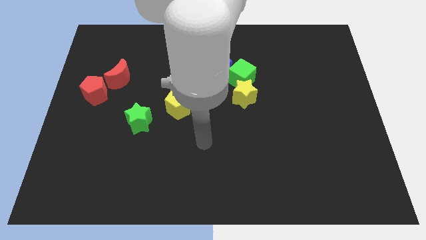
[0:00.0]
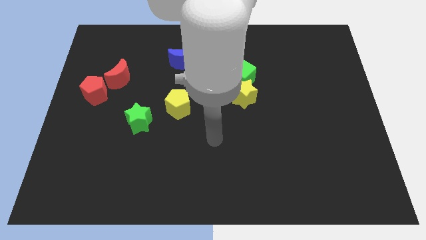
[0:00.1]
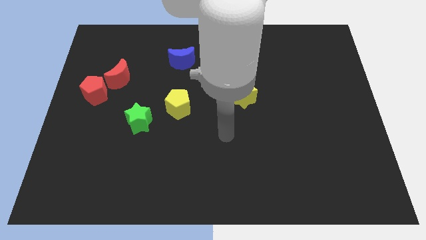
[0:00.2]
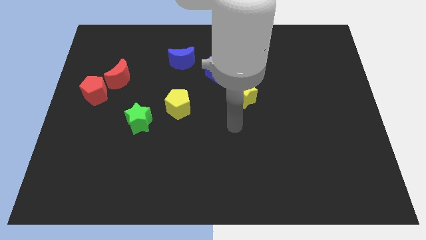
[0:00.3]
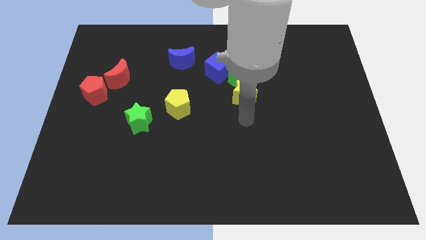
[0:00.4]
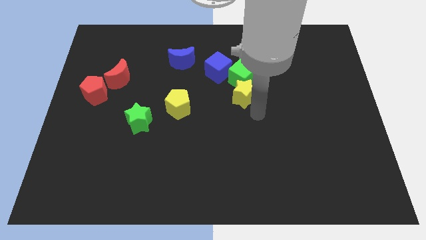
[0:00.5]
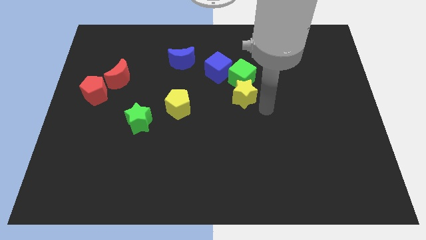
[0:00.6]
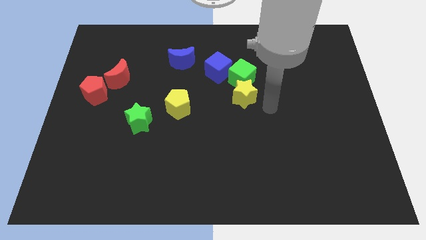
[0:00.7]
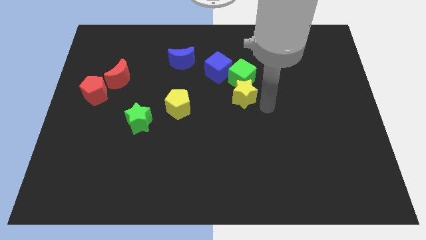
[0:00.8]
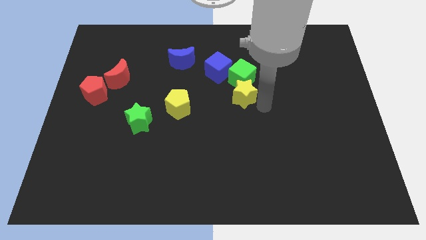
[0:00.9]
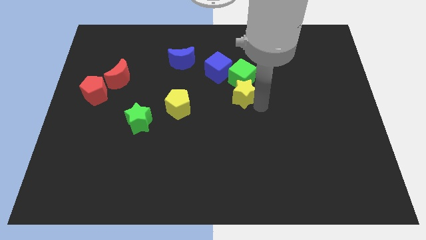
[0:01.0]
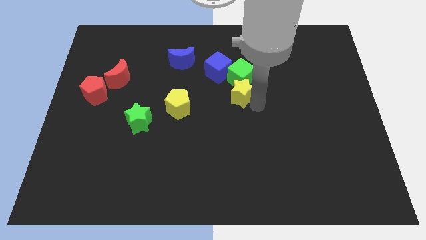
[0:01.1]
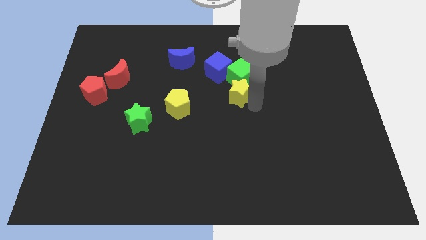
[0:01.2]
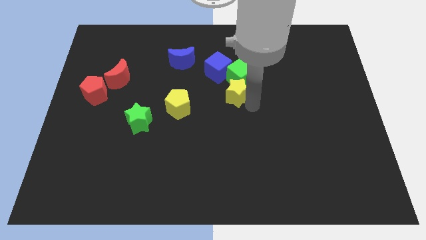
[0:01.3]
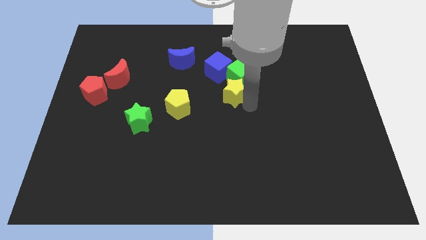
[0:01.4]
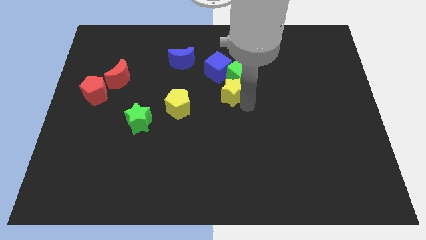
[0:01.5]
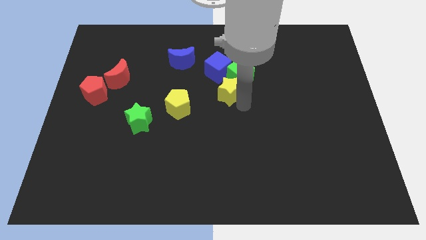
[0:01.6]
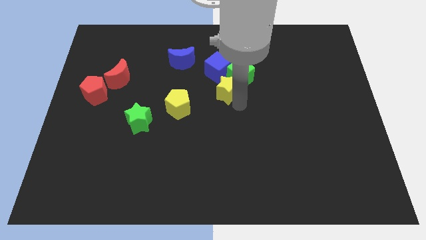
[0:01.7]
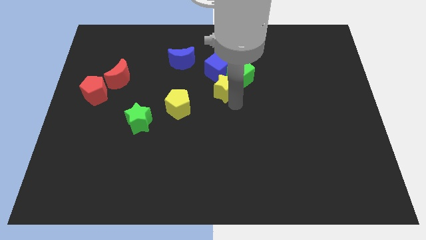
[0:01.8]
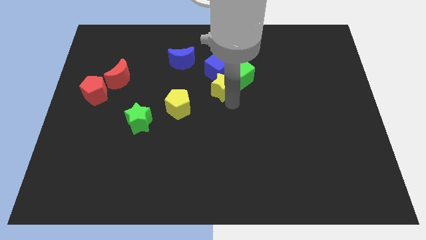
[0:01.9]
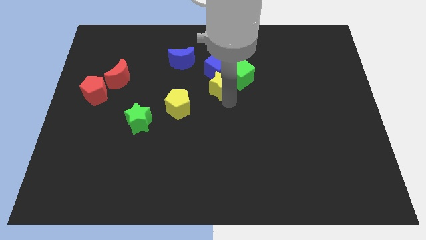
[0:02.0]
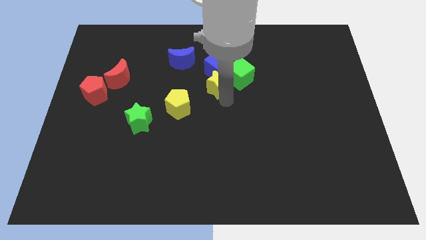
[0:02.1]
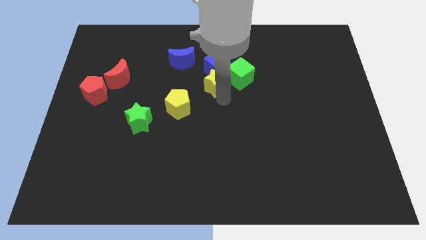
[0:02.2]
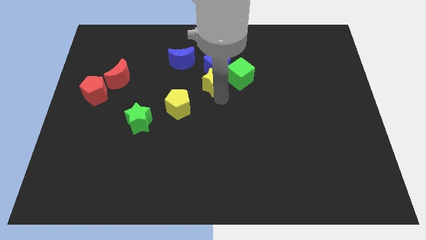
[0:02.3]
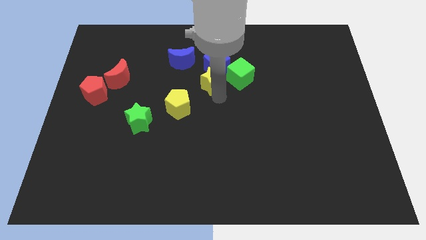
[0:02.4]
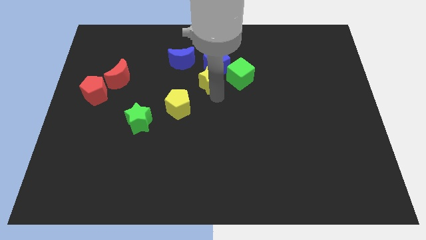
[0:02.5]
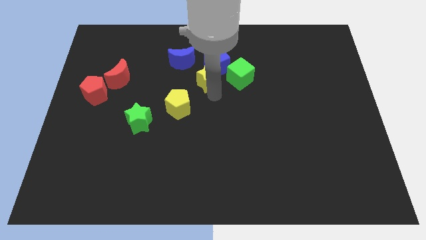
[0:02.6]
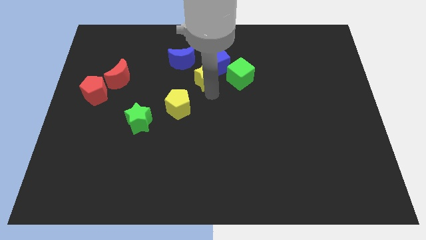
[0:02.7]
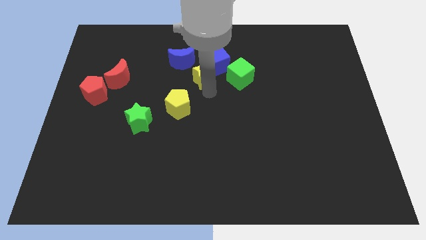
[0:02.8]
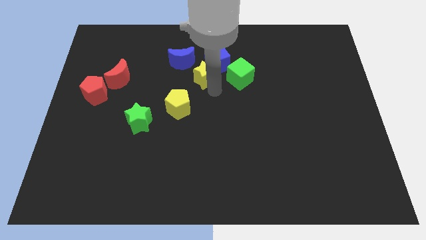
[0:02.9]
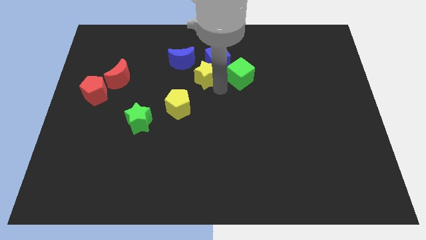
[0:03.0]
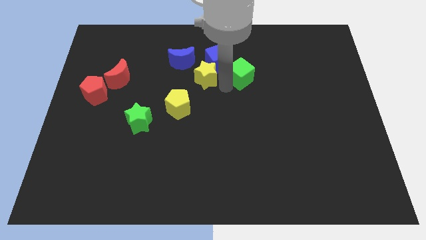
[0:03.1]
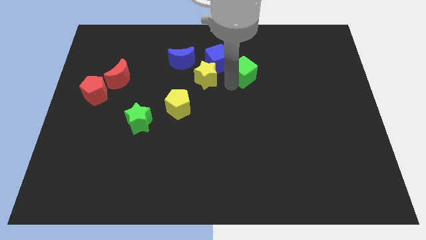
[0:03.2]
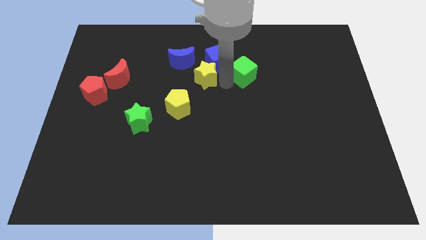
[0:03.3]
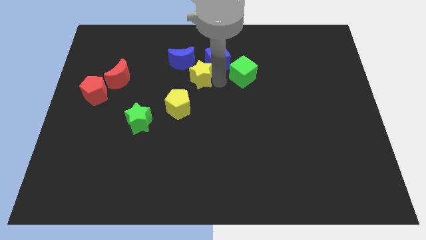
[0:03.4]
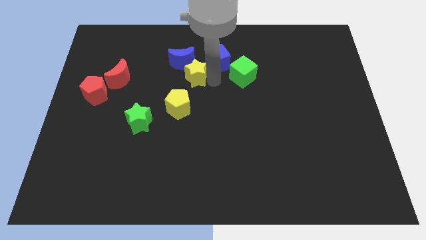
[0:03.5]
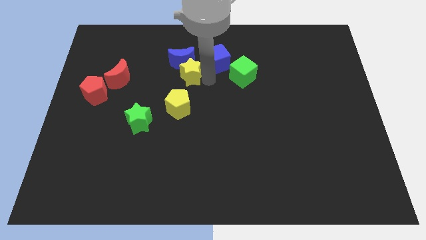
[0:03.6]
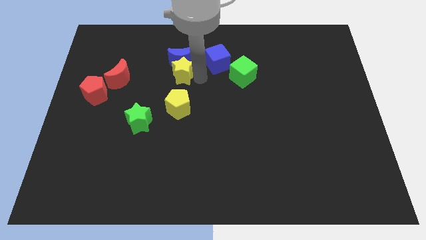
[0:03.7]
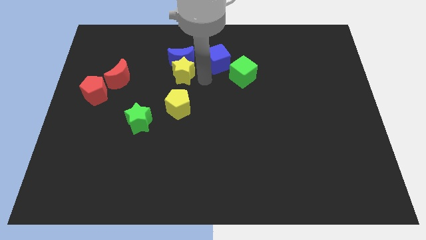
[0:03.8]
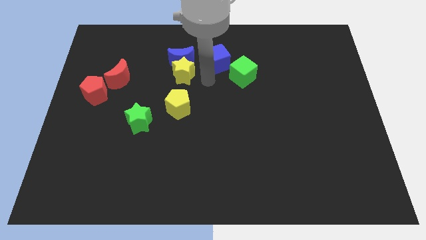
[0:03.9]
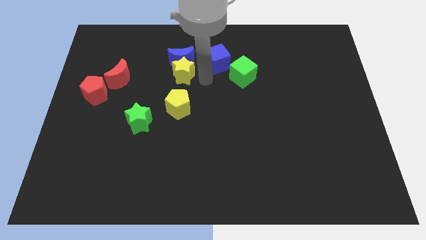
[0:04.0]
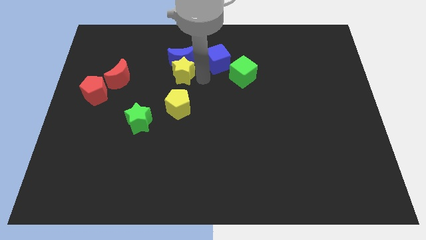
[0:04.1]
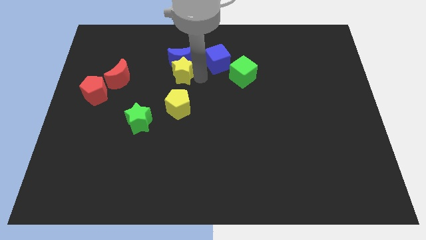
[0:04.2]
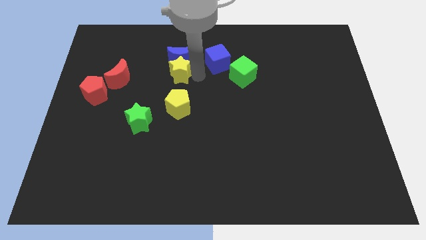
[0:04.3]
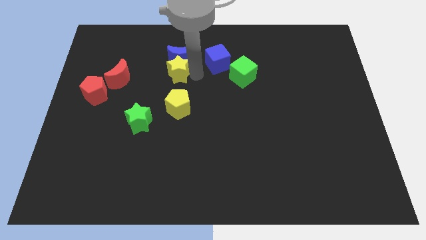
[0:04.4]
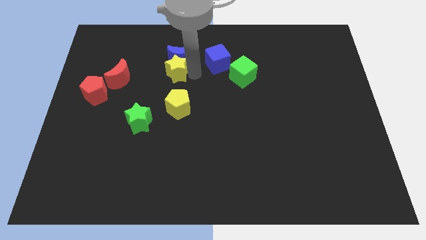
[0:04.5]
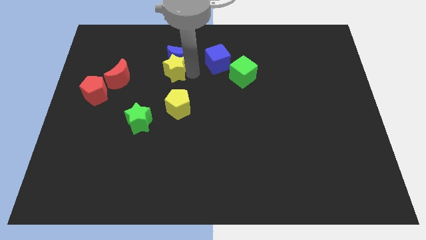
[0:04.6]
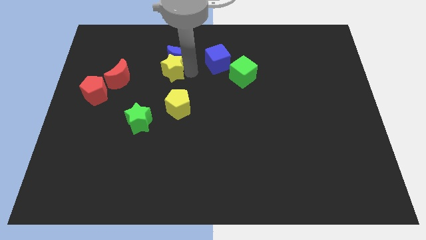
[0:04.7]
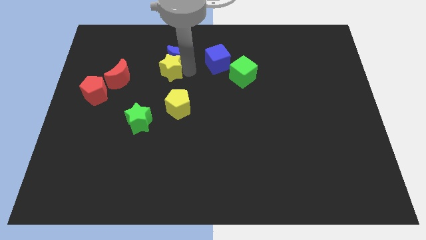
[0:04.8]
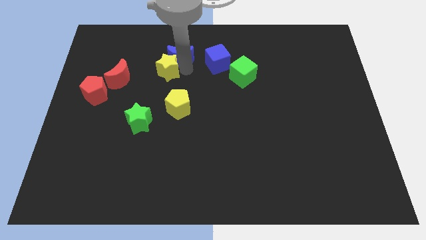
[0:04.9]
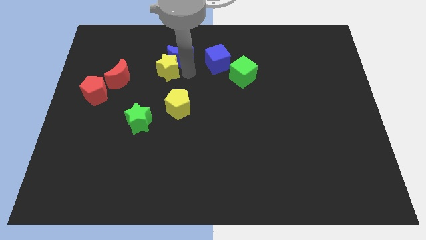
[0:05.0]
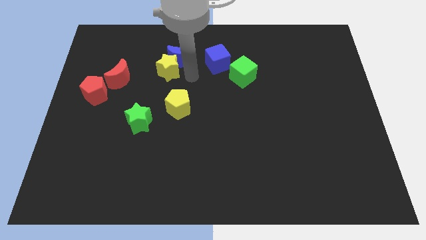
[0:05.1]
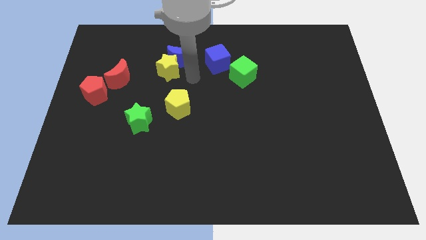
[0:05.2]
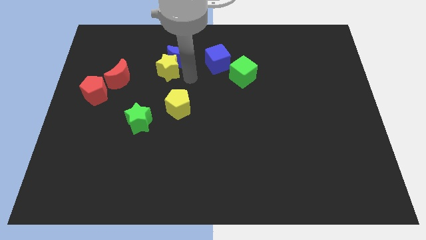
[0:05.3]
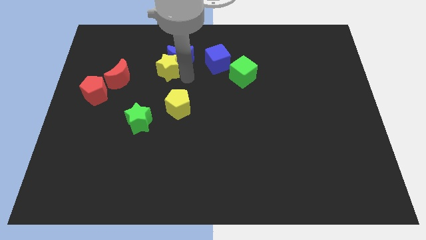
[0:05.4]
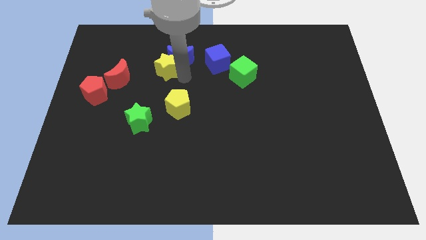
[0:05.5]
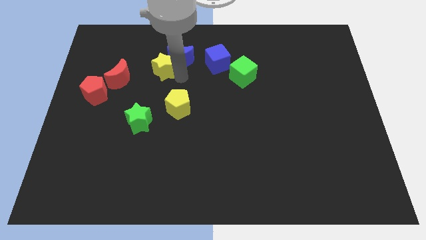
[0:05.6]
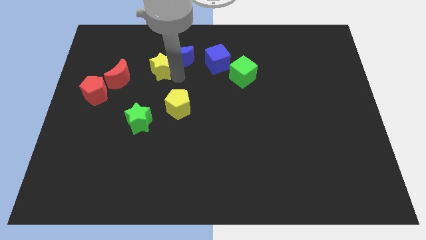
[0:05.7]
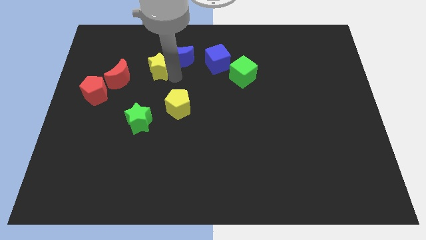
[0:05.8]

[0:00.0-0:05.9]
move the yellow star to the top right side of the red moon

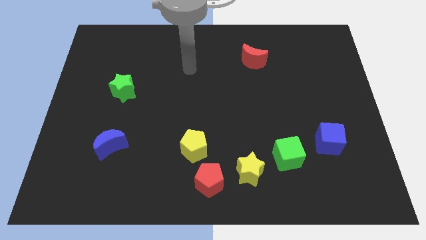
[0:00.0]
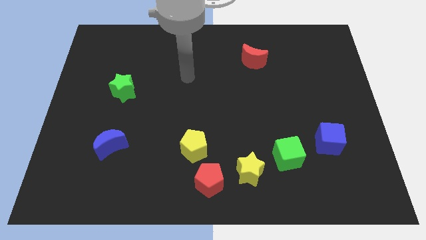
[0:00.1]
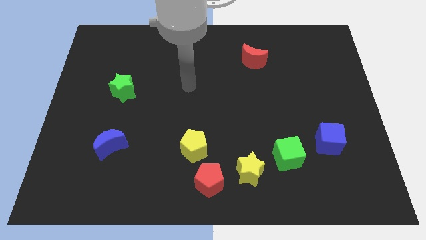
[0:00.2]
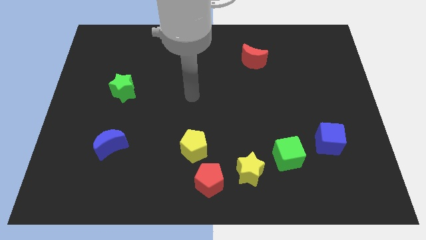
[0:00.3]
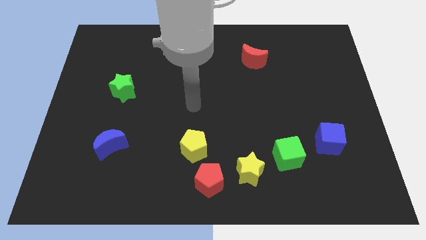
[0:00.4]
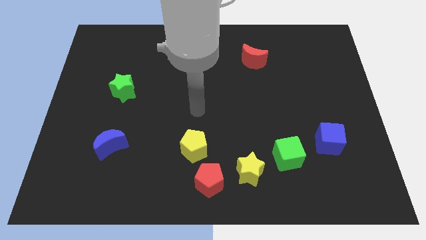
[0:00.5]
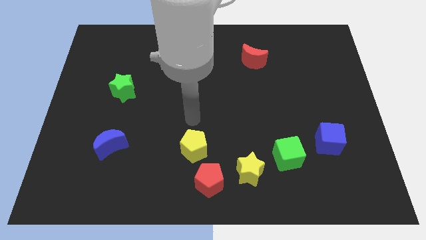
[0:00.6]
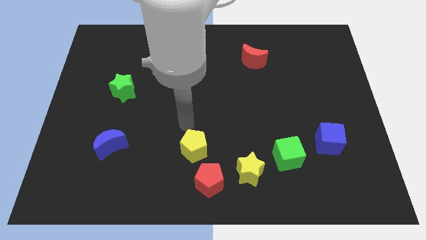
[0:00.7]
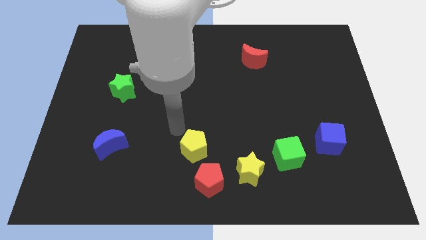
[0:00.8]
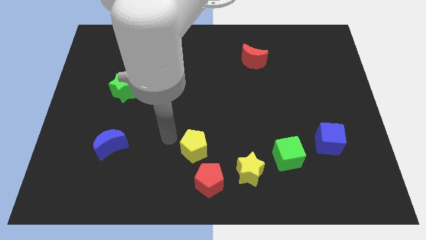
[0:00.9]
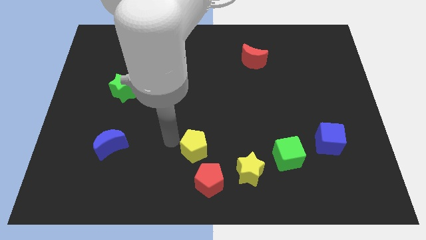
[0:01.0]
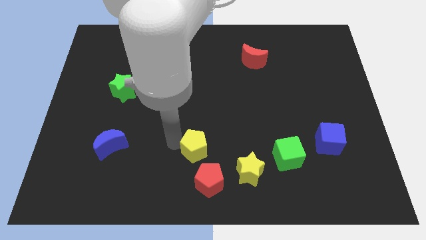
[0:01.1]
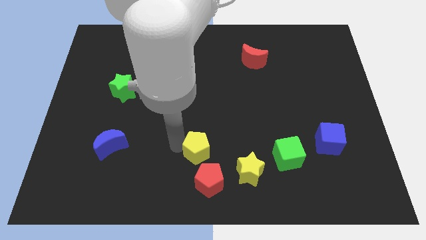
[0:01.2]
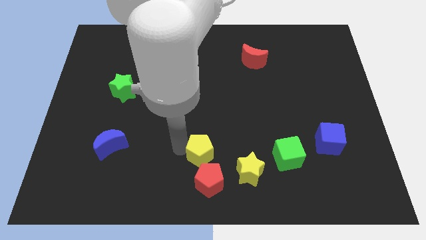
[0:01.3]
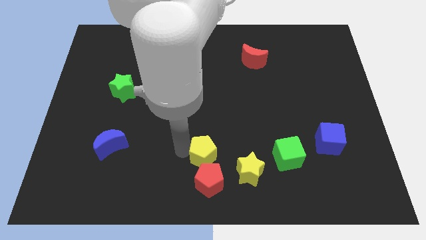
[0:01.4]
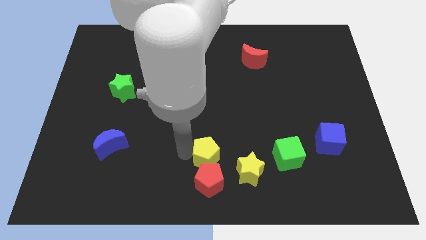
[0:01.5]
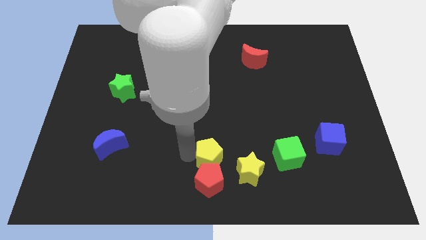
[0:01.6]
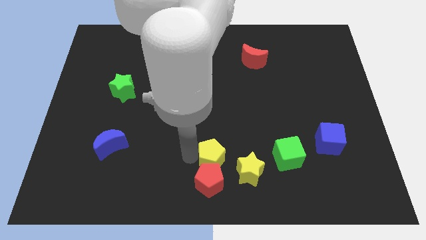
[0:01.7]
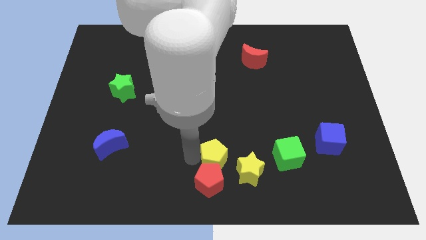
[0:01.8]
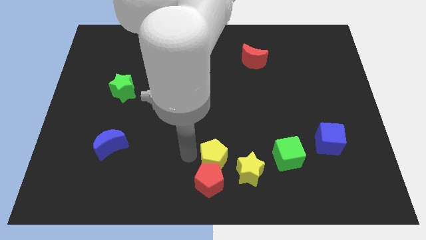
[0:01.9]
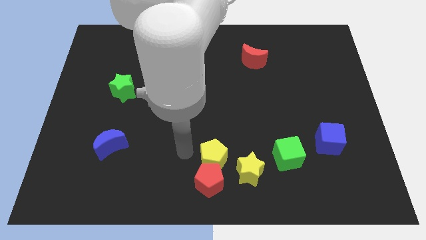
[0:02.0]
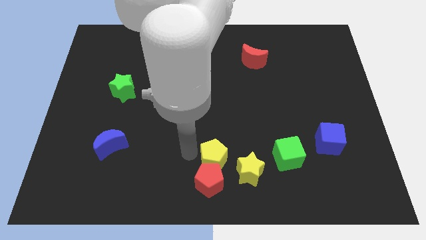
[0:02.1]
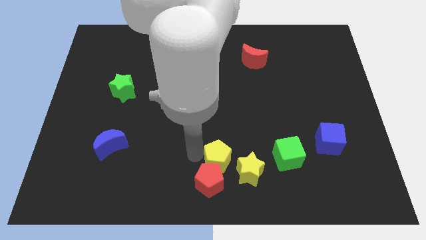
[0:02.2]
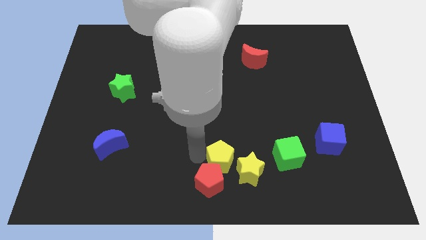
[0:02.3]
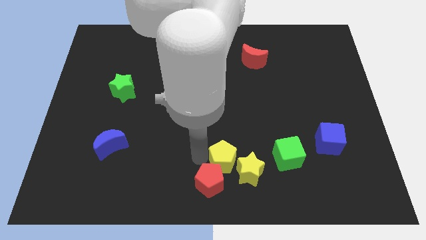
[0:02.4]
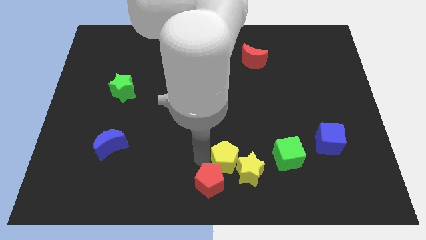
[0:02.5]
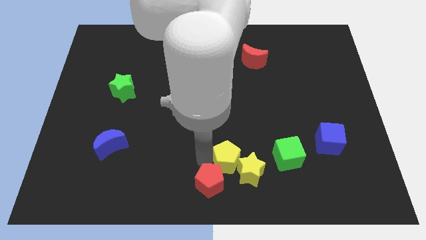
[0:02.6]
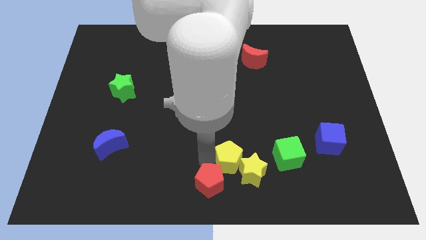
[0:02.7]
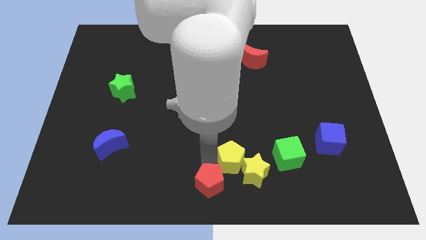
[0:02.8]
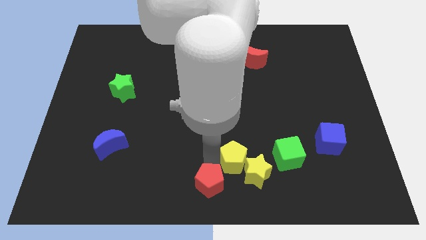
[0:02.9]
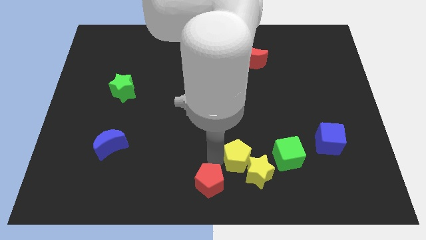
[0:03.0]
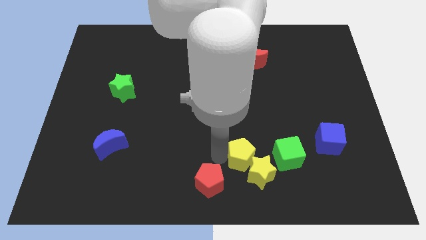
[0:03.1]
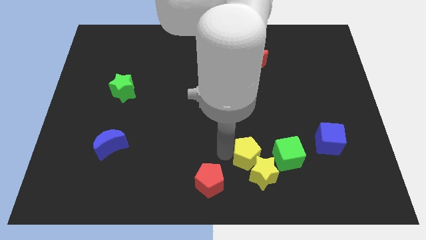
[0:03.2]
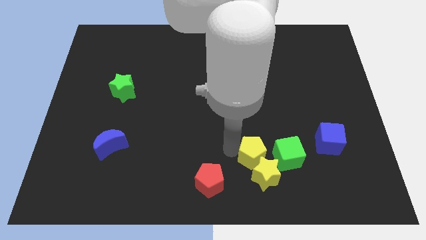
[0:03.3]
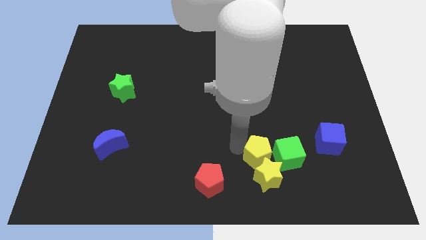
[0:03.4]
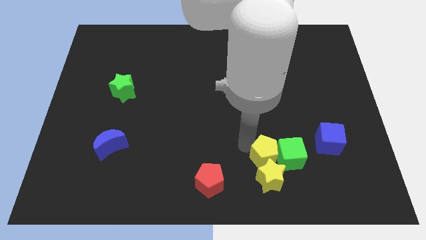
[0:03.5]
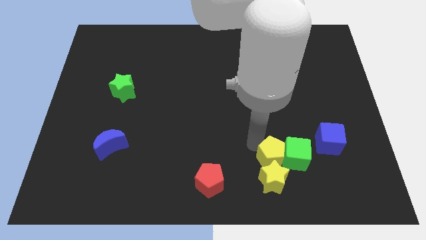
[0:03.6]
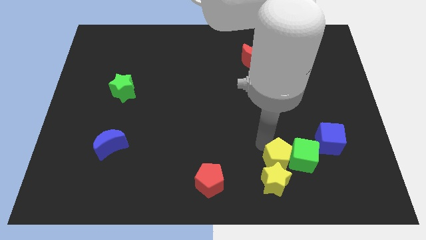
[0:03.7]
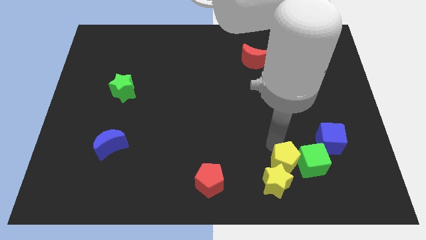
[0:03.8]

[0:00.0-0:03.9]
put the yellow pentagon to the bottom left of the blue cube
